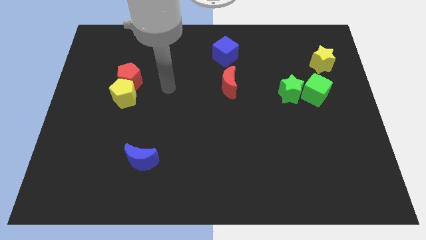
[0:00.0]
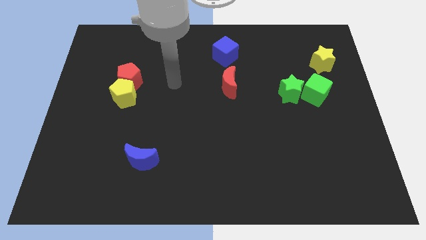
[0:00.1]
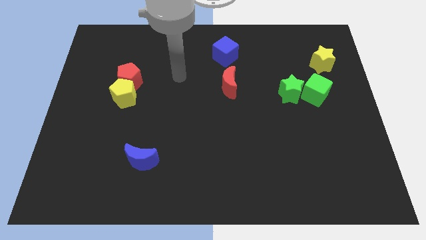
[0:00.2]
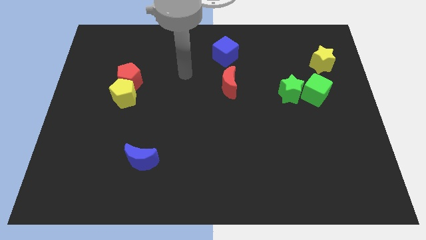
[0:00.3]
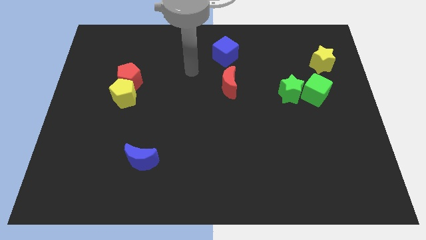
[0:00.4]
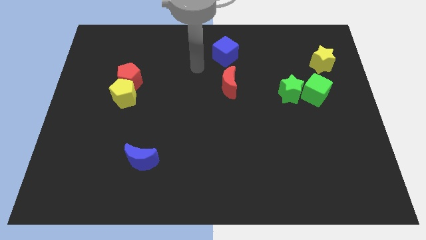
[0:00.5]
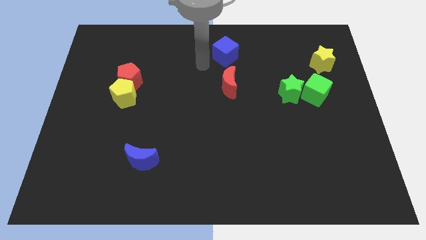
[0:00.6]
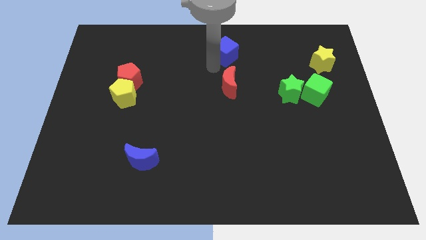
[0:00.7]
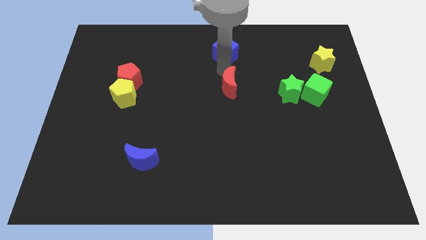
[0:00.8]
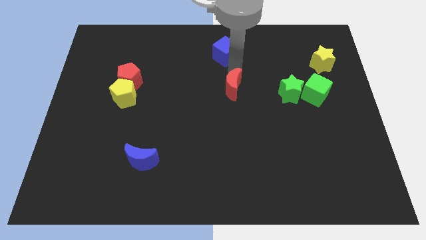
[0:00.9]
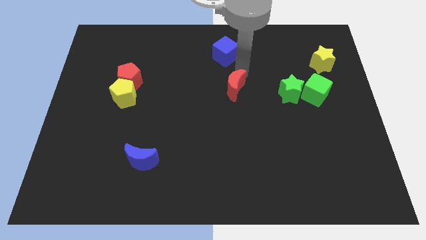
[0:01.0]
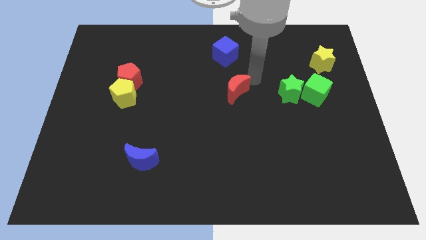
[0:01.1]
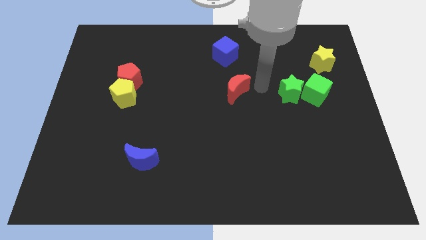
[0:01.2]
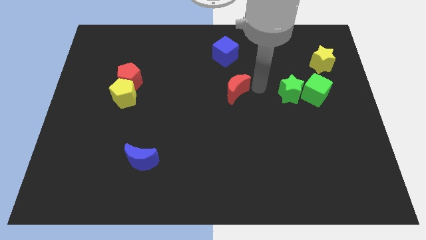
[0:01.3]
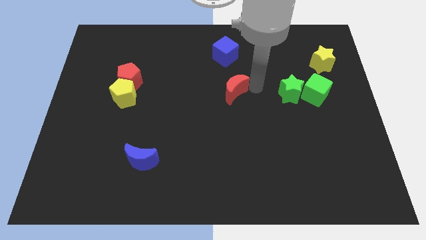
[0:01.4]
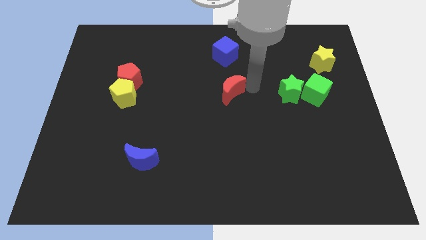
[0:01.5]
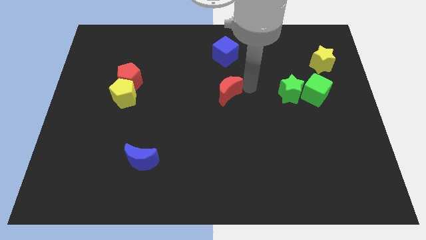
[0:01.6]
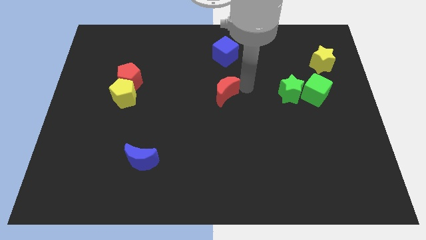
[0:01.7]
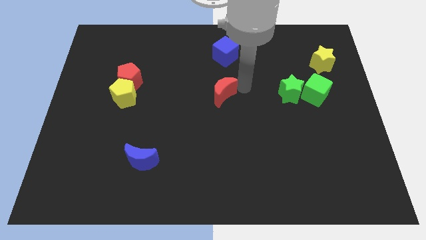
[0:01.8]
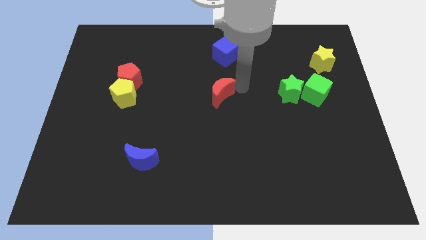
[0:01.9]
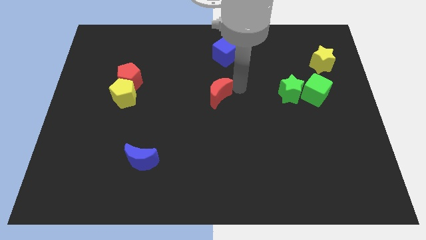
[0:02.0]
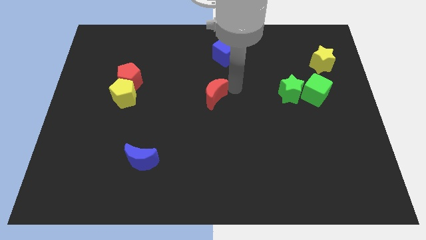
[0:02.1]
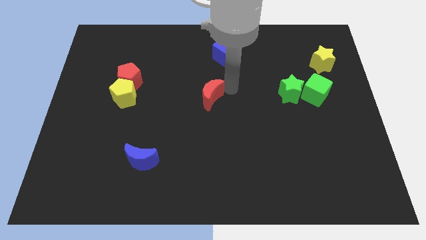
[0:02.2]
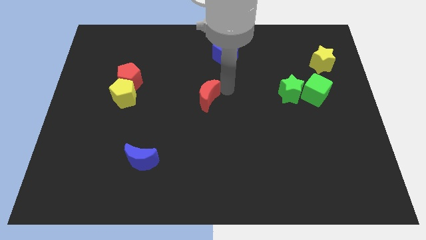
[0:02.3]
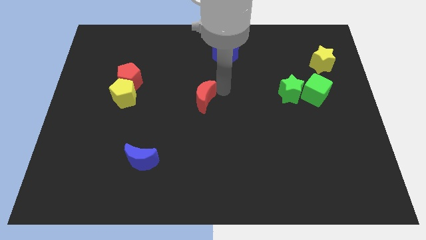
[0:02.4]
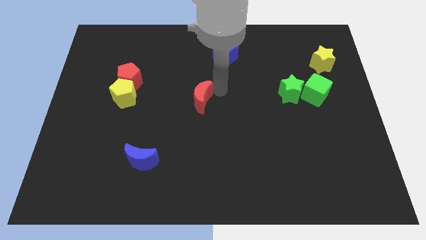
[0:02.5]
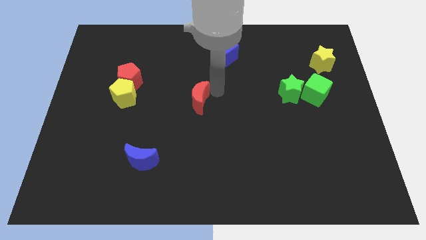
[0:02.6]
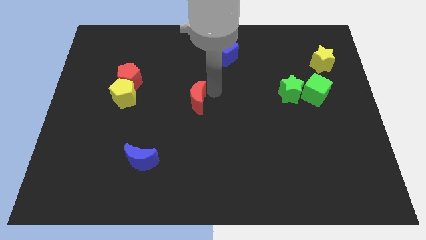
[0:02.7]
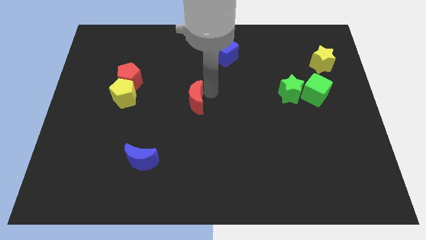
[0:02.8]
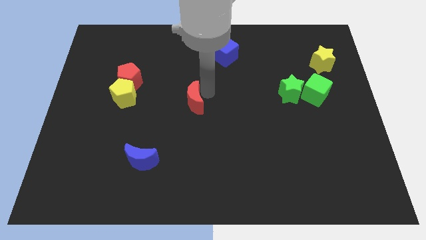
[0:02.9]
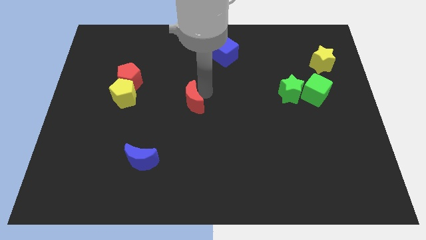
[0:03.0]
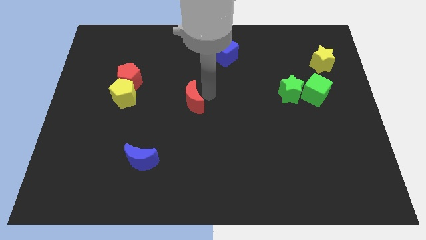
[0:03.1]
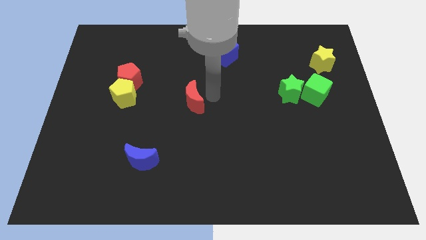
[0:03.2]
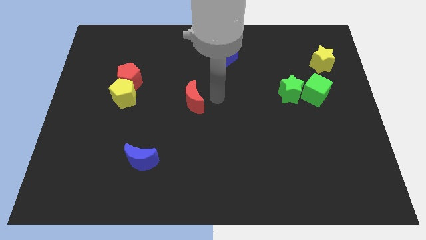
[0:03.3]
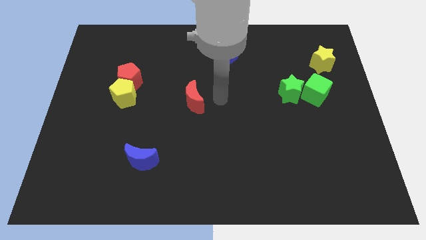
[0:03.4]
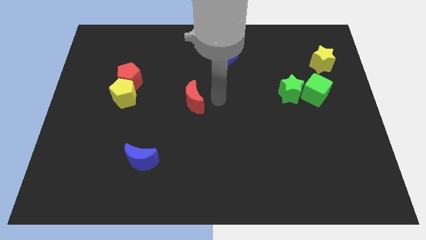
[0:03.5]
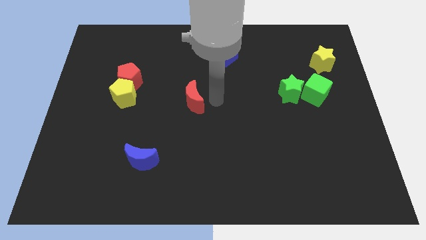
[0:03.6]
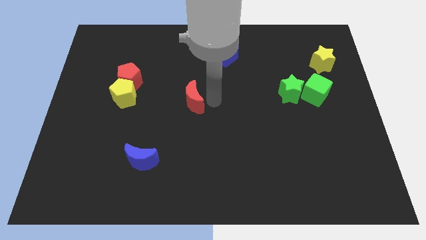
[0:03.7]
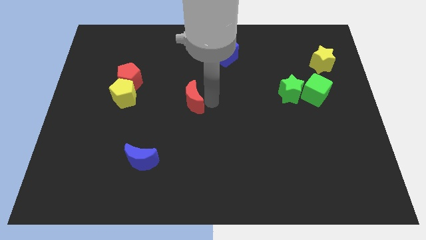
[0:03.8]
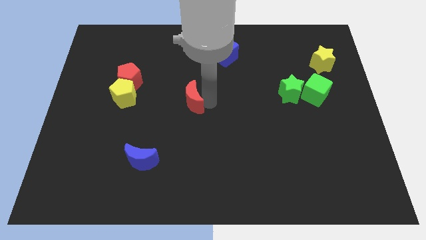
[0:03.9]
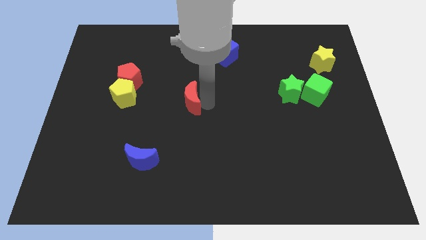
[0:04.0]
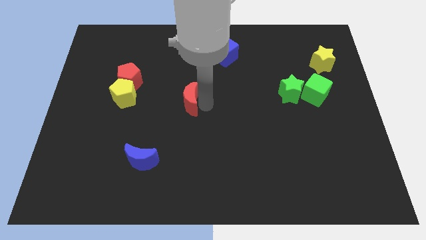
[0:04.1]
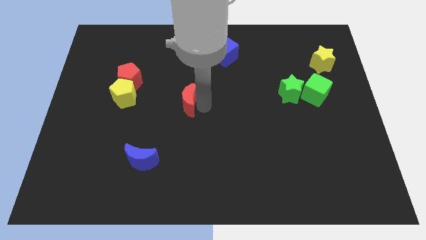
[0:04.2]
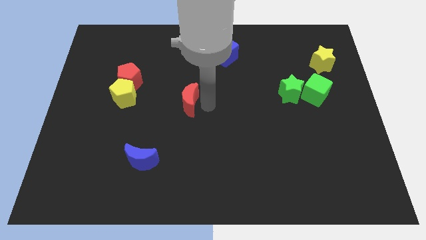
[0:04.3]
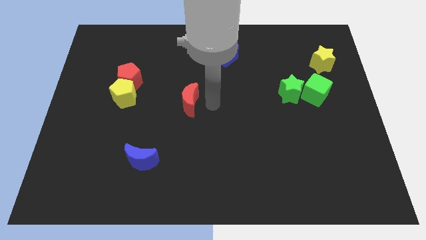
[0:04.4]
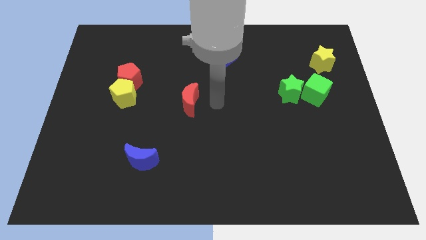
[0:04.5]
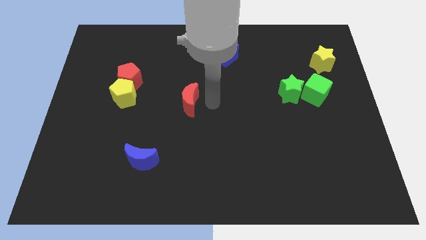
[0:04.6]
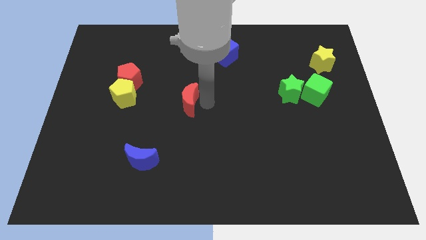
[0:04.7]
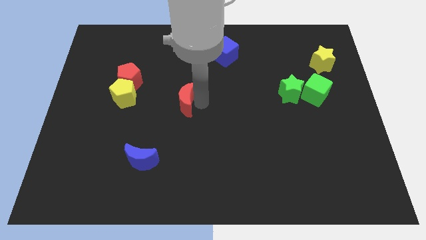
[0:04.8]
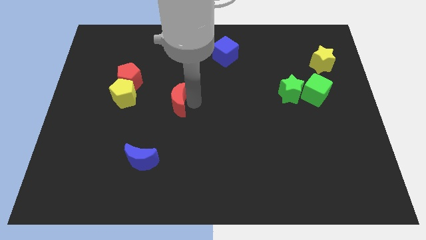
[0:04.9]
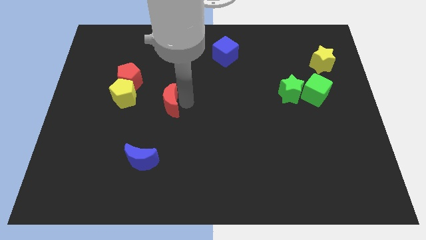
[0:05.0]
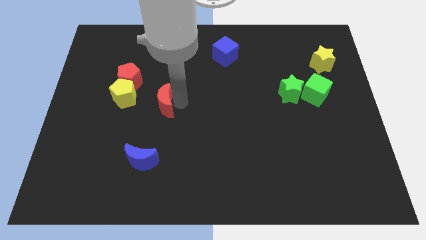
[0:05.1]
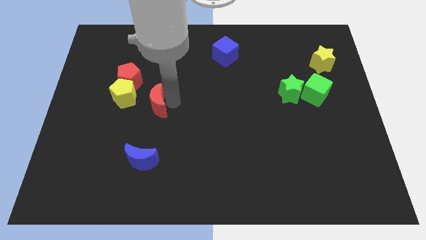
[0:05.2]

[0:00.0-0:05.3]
move the red moon to the bottom right side of the yellow pentagon

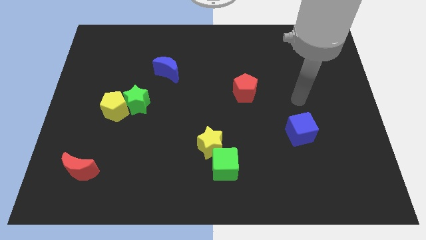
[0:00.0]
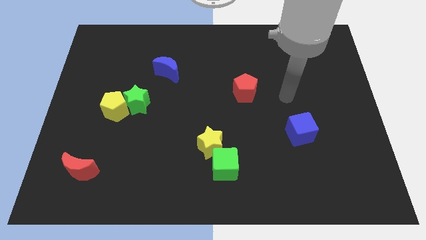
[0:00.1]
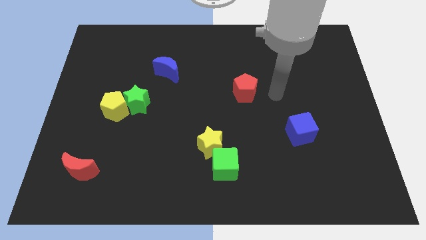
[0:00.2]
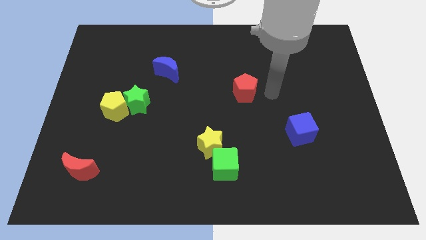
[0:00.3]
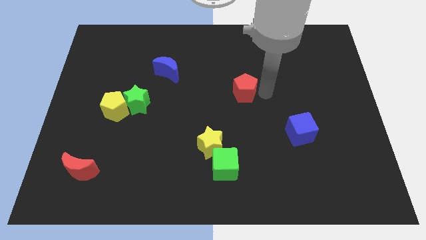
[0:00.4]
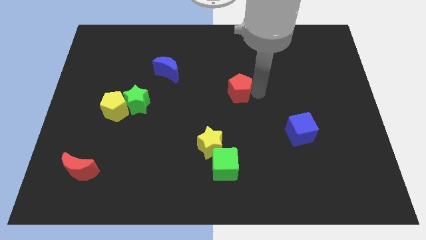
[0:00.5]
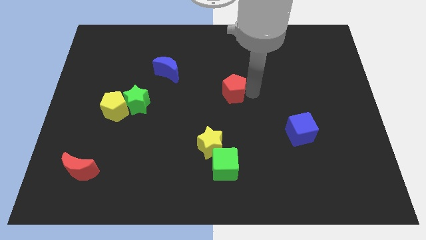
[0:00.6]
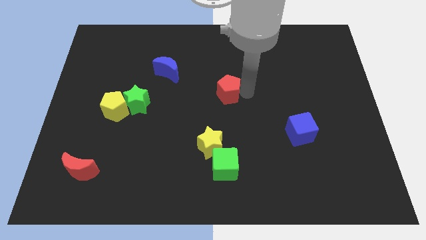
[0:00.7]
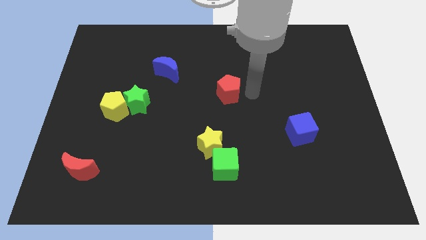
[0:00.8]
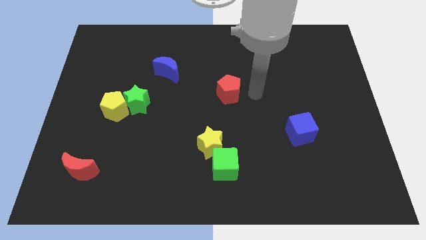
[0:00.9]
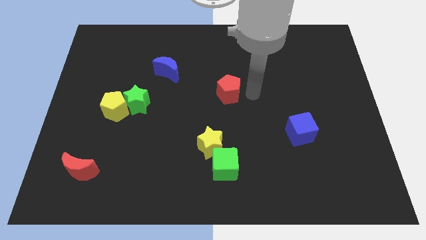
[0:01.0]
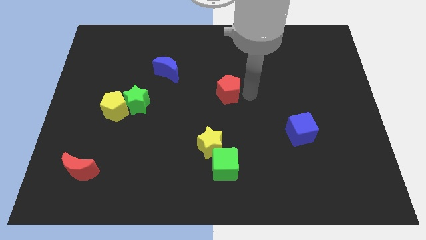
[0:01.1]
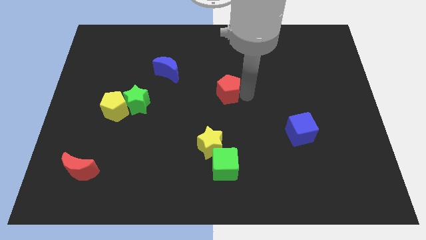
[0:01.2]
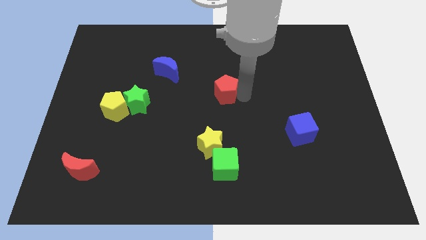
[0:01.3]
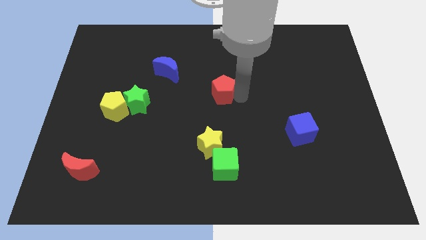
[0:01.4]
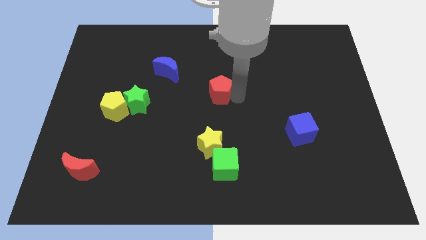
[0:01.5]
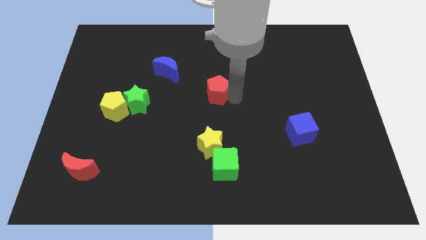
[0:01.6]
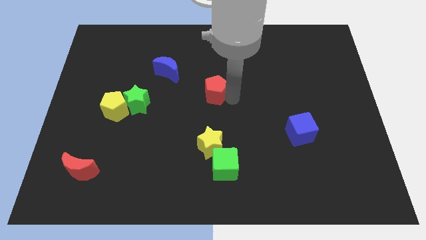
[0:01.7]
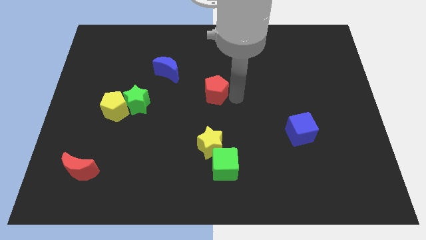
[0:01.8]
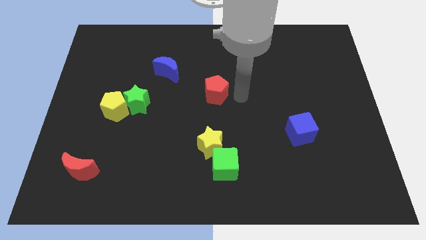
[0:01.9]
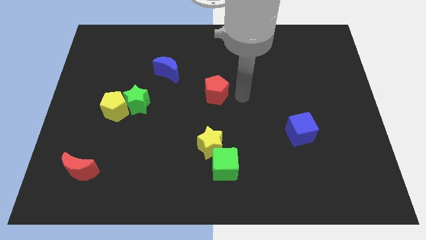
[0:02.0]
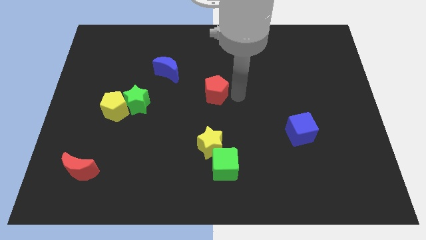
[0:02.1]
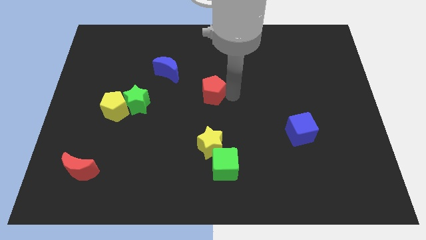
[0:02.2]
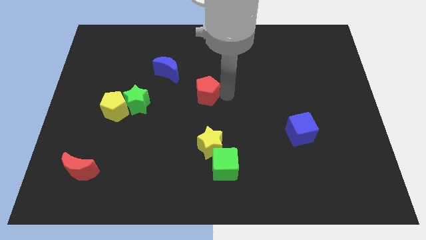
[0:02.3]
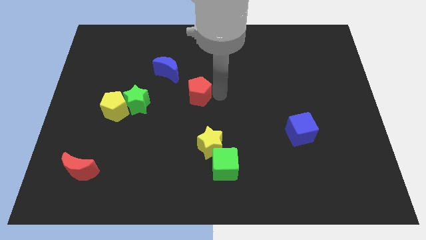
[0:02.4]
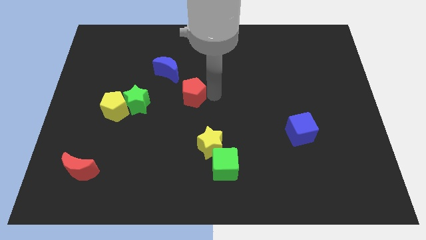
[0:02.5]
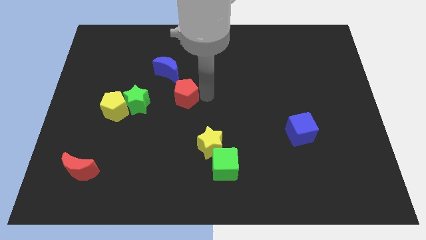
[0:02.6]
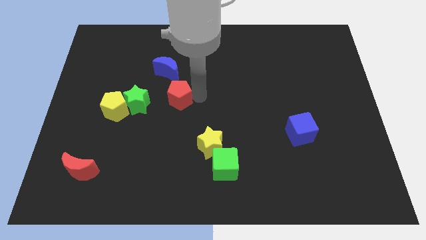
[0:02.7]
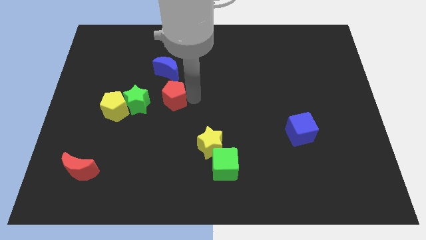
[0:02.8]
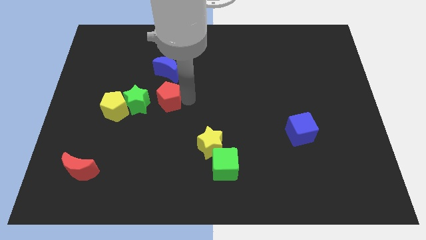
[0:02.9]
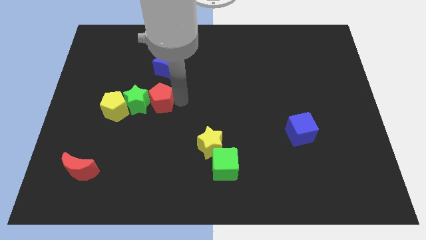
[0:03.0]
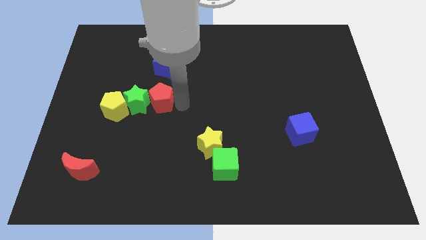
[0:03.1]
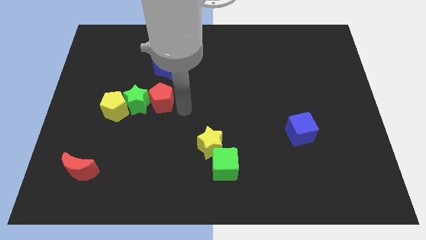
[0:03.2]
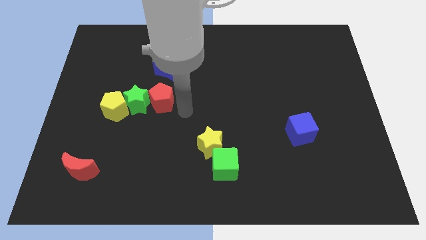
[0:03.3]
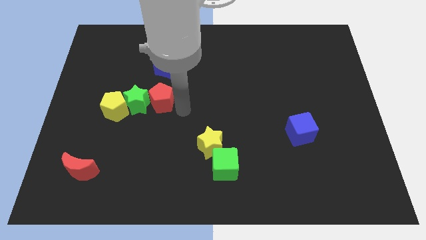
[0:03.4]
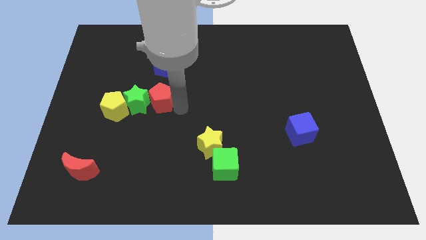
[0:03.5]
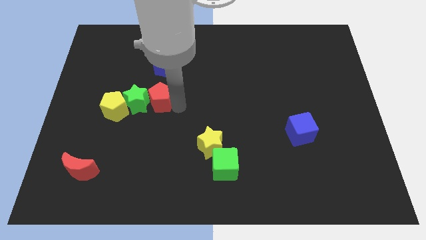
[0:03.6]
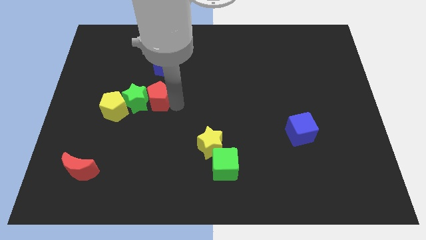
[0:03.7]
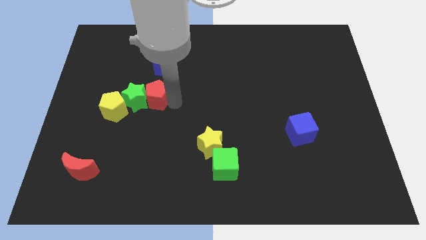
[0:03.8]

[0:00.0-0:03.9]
push the red pentagon diagonally up and to the right of the yellow pentagon
